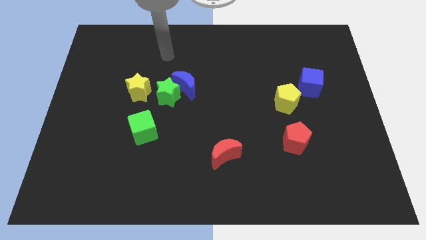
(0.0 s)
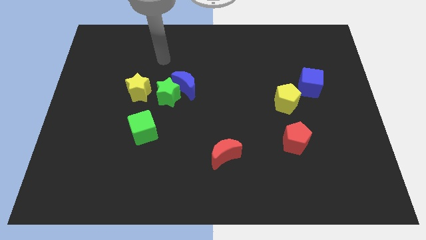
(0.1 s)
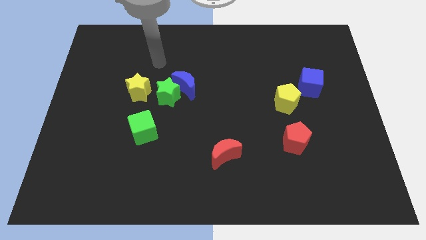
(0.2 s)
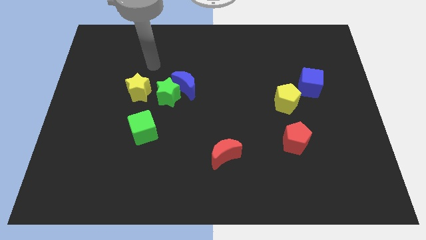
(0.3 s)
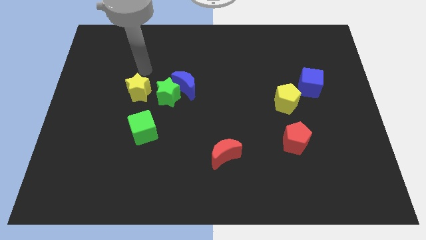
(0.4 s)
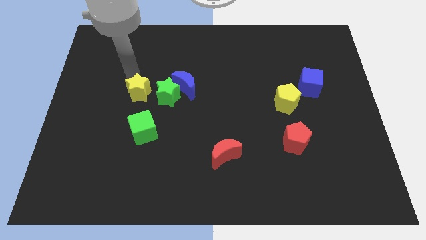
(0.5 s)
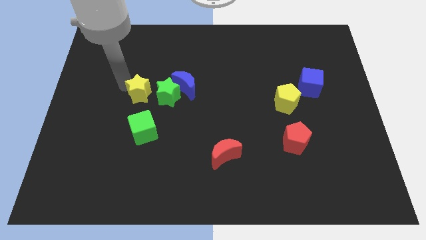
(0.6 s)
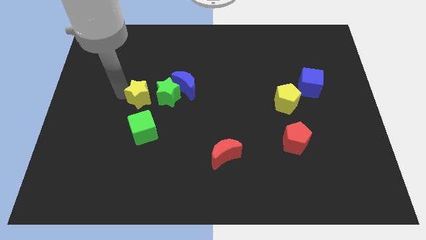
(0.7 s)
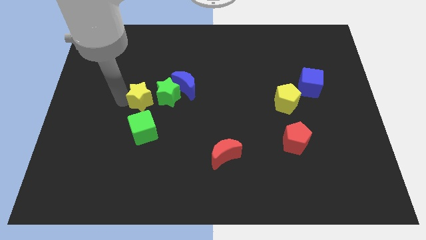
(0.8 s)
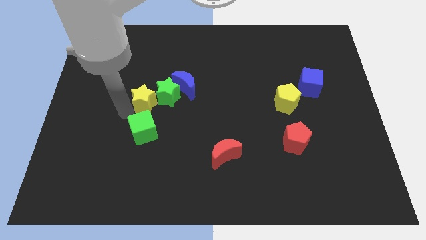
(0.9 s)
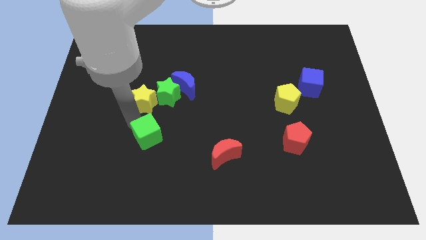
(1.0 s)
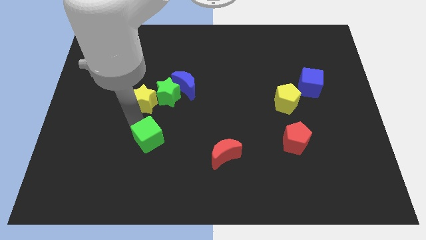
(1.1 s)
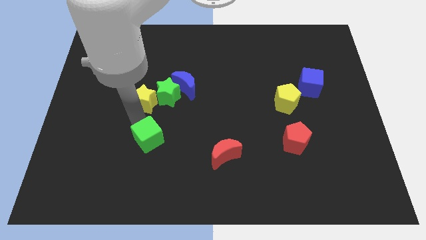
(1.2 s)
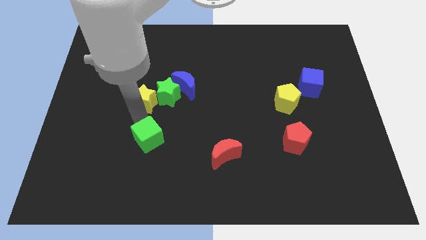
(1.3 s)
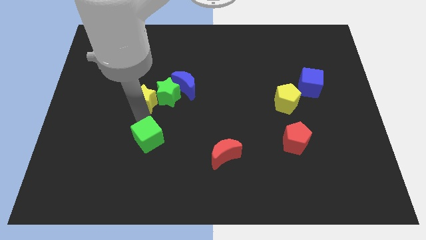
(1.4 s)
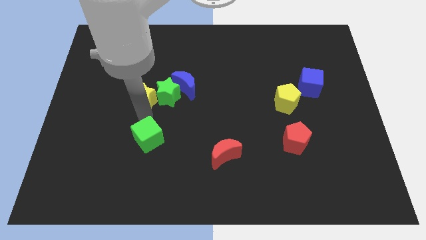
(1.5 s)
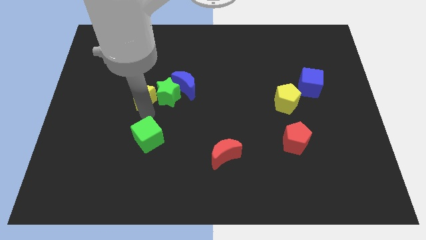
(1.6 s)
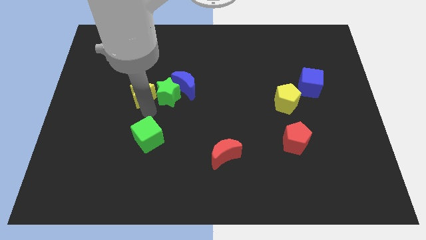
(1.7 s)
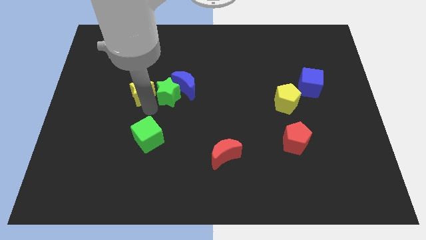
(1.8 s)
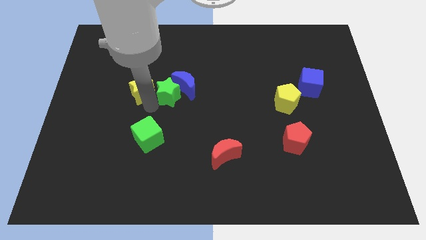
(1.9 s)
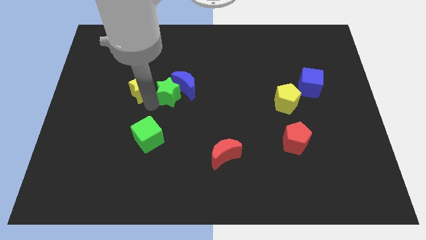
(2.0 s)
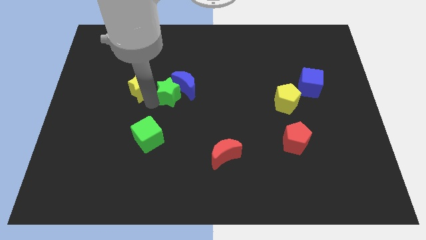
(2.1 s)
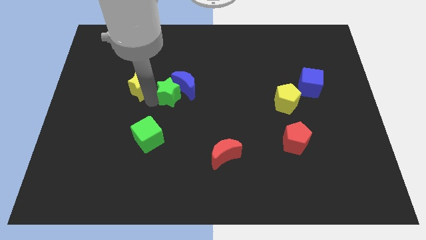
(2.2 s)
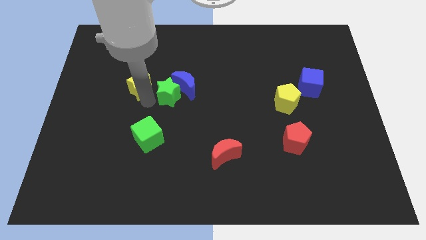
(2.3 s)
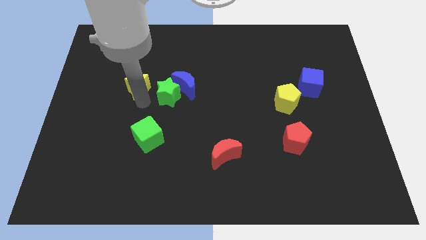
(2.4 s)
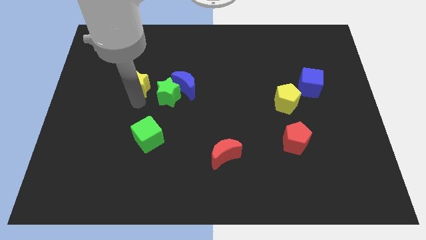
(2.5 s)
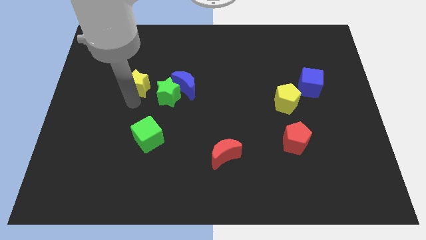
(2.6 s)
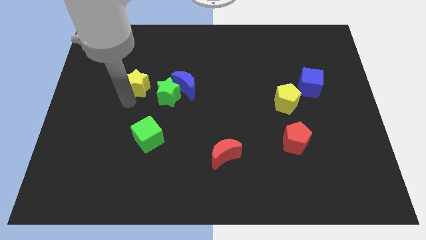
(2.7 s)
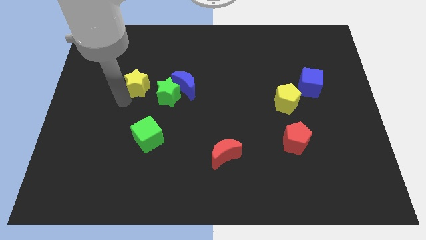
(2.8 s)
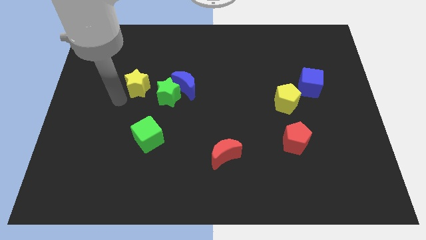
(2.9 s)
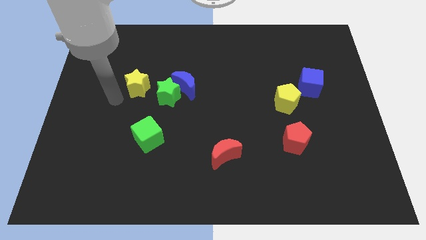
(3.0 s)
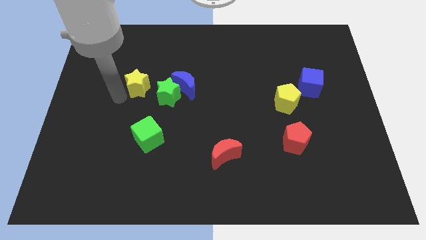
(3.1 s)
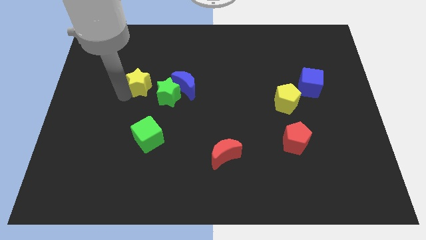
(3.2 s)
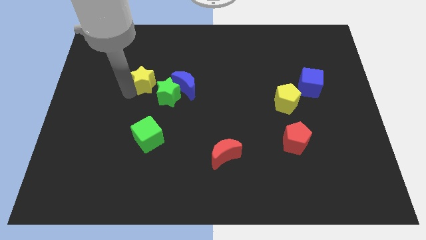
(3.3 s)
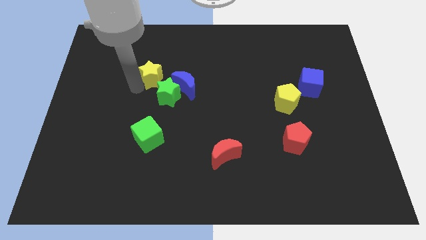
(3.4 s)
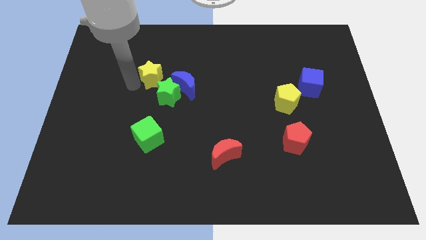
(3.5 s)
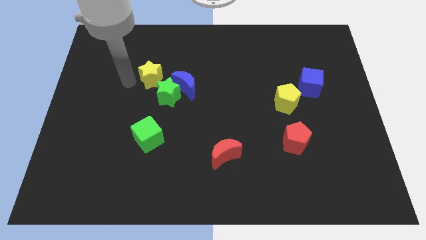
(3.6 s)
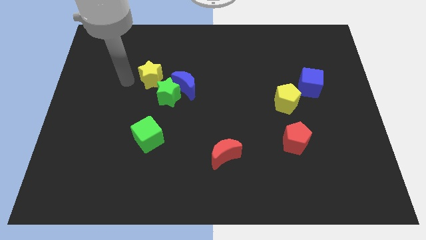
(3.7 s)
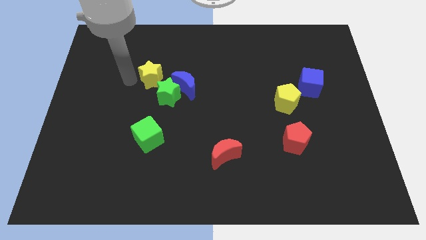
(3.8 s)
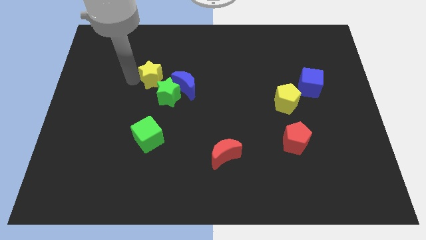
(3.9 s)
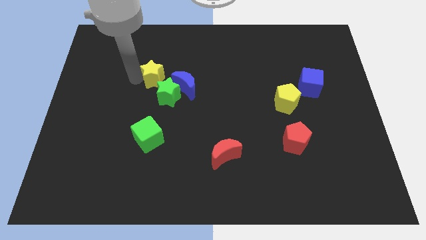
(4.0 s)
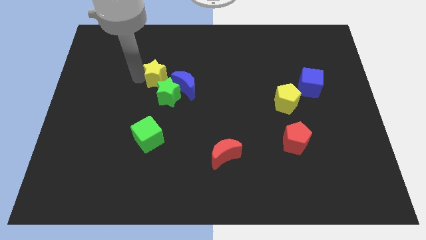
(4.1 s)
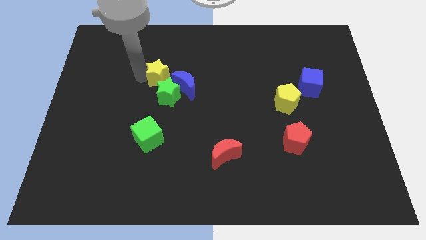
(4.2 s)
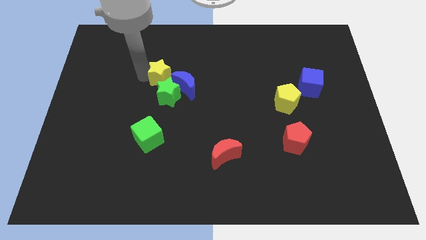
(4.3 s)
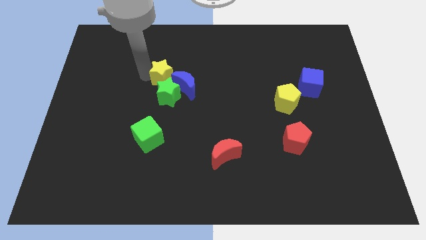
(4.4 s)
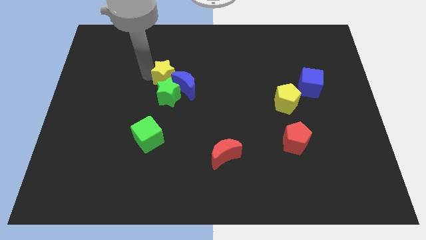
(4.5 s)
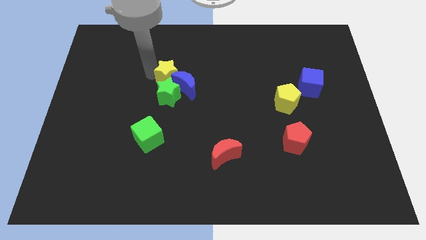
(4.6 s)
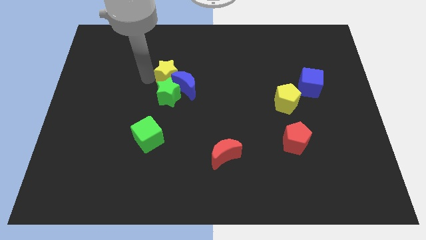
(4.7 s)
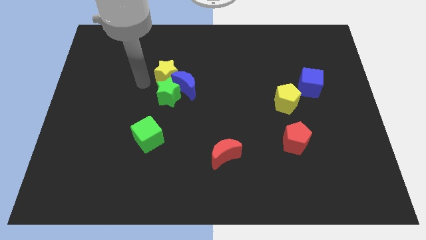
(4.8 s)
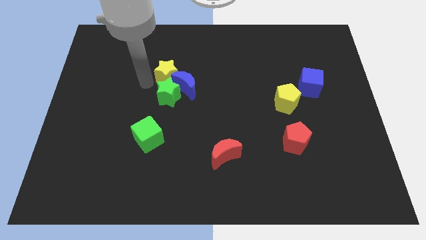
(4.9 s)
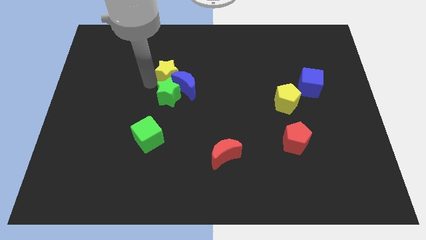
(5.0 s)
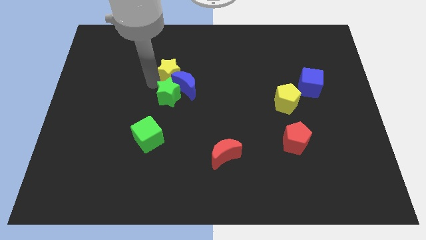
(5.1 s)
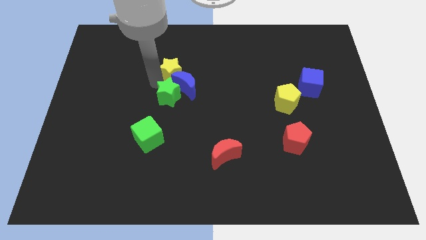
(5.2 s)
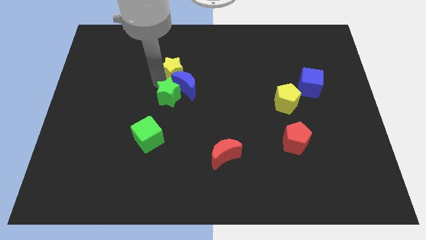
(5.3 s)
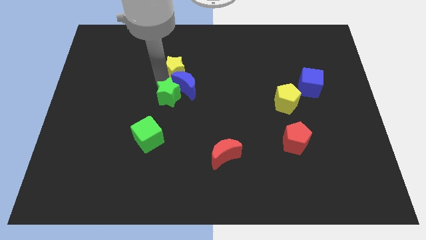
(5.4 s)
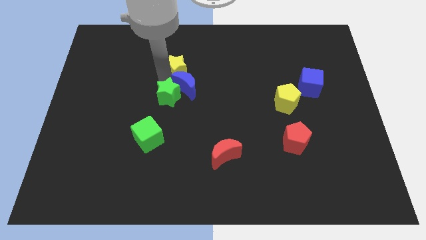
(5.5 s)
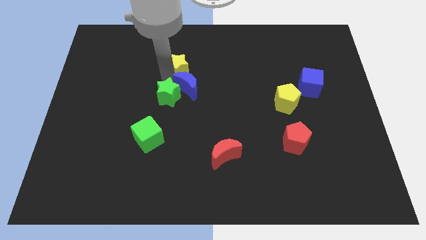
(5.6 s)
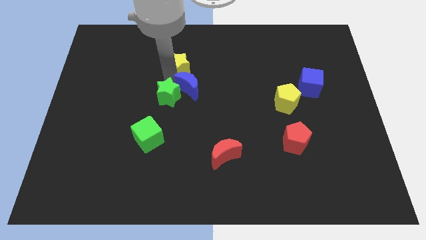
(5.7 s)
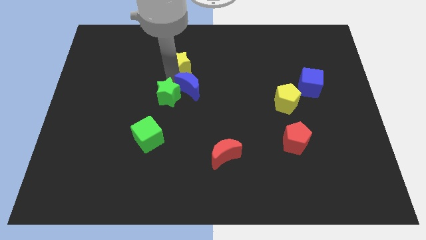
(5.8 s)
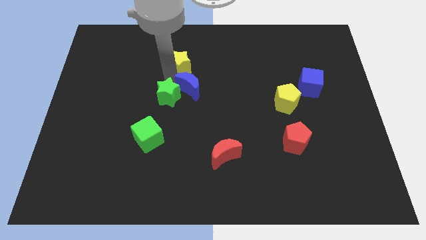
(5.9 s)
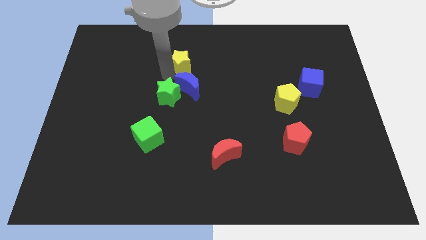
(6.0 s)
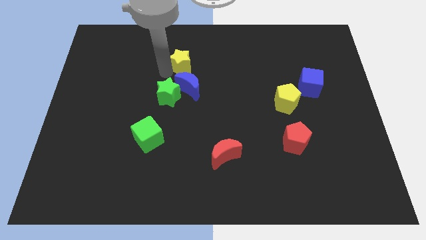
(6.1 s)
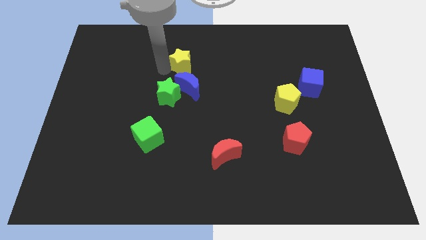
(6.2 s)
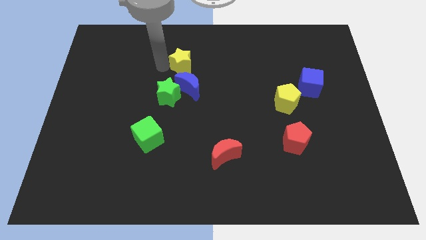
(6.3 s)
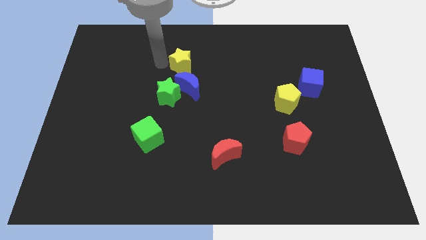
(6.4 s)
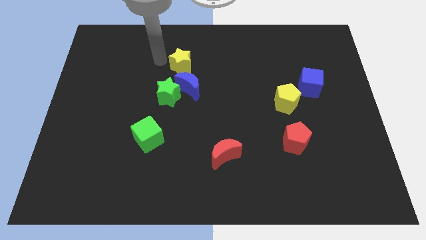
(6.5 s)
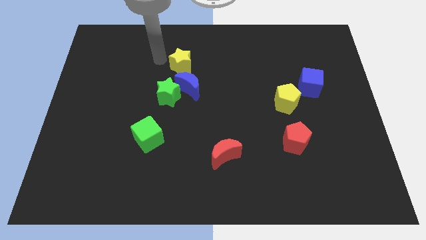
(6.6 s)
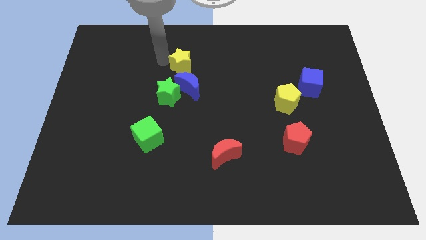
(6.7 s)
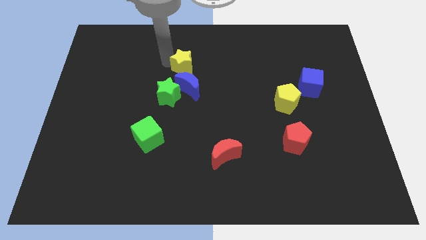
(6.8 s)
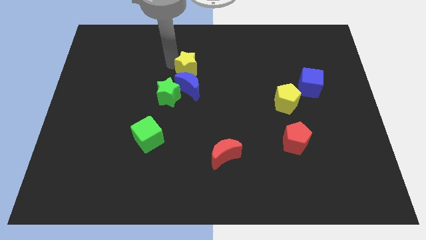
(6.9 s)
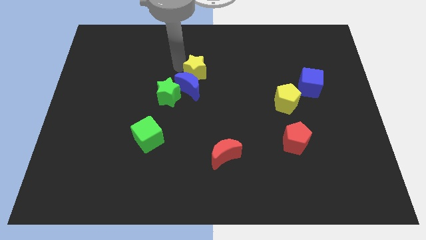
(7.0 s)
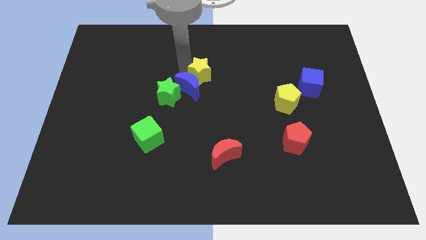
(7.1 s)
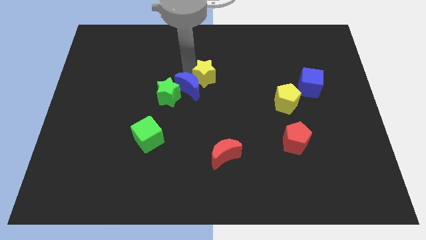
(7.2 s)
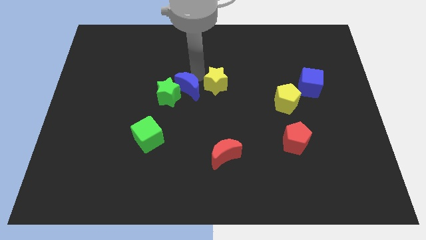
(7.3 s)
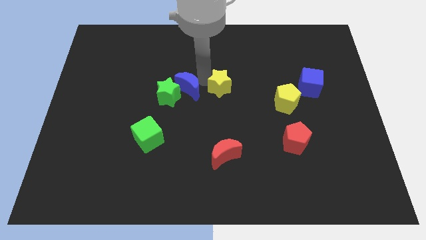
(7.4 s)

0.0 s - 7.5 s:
slide the yellow star right

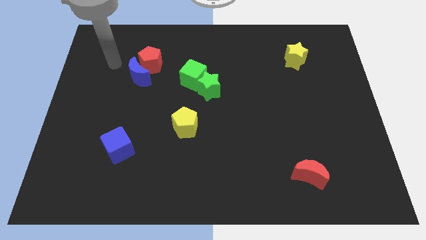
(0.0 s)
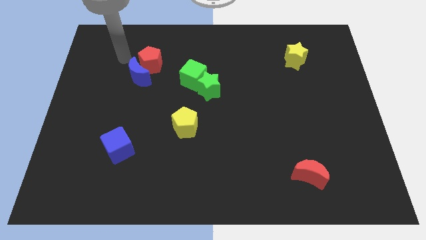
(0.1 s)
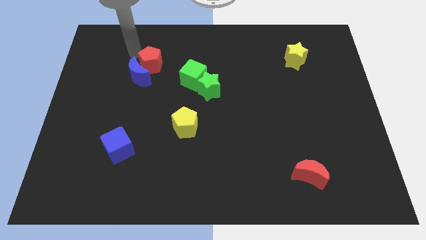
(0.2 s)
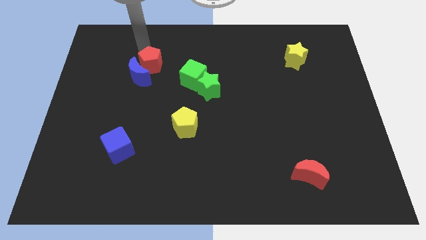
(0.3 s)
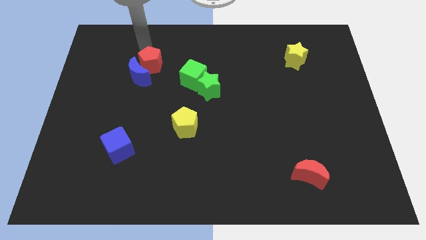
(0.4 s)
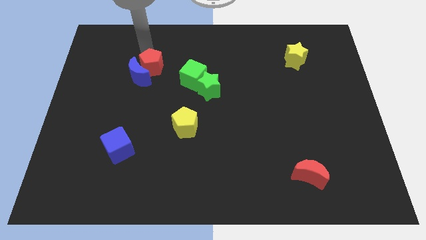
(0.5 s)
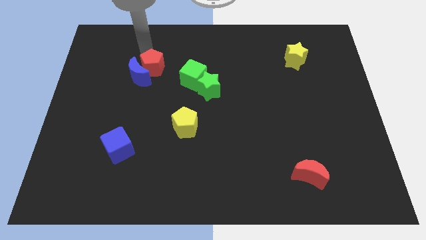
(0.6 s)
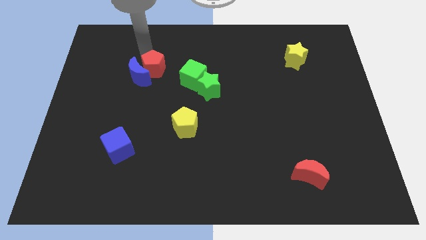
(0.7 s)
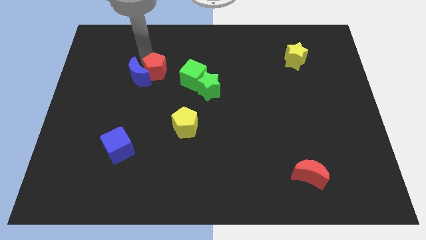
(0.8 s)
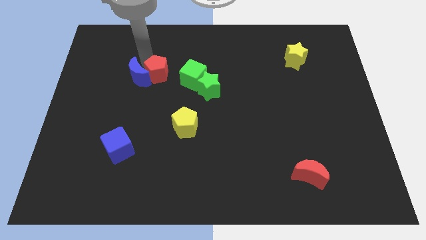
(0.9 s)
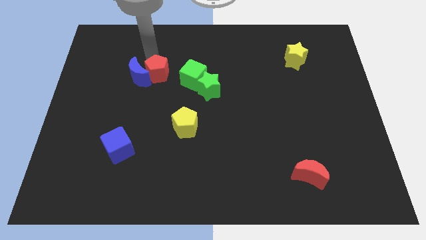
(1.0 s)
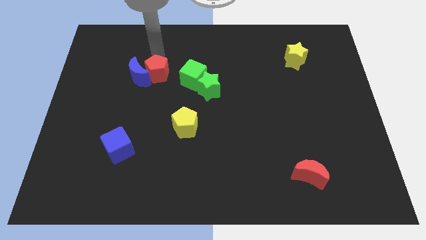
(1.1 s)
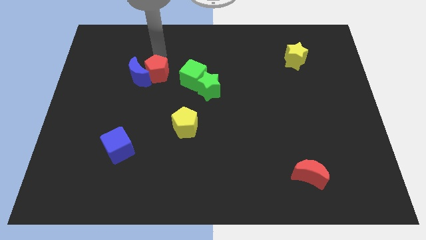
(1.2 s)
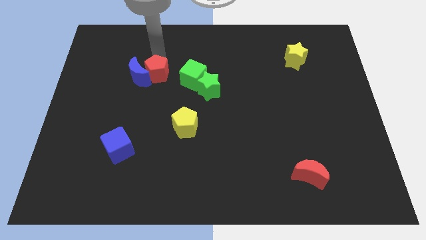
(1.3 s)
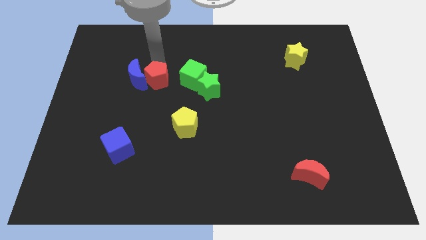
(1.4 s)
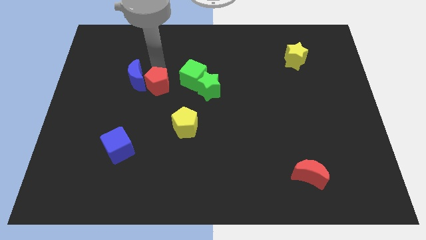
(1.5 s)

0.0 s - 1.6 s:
slightly move the red pentagon downwards
